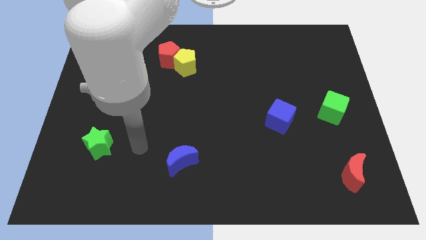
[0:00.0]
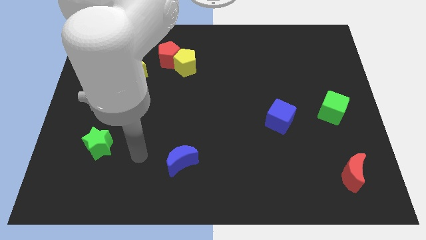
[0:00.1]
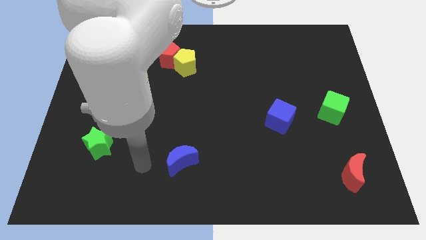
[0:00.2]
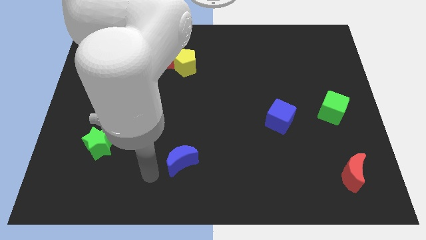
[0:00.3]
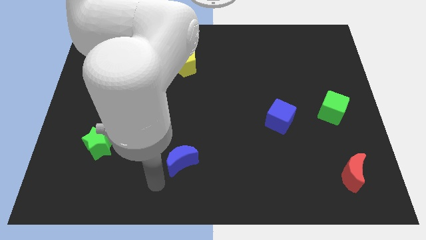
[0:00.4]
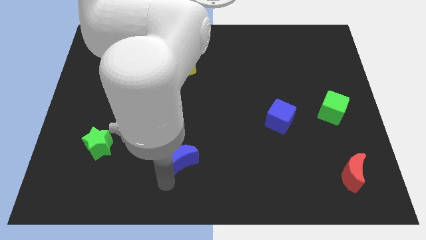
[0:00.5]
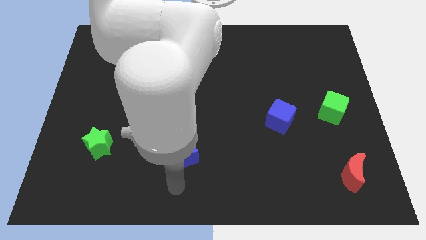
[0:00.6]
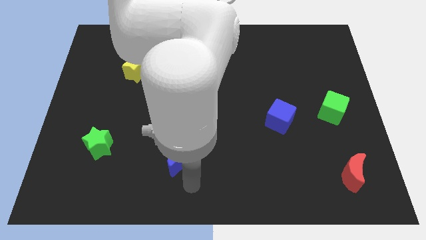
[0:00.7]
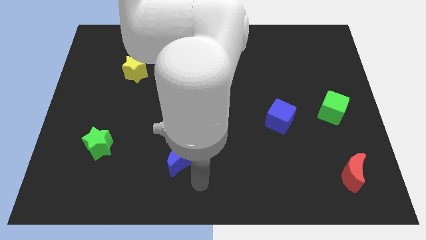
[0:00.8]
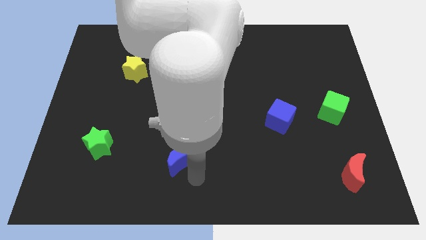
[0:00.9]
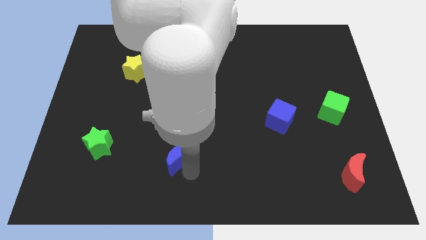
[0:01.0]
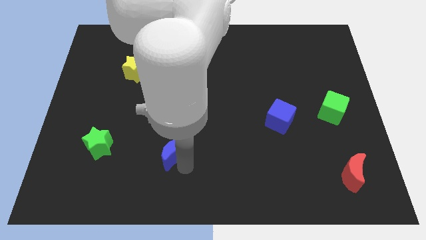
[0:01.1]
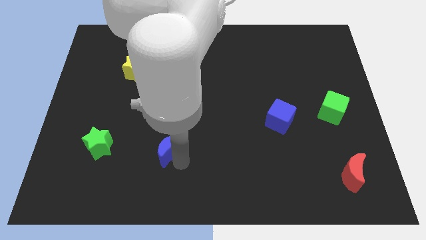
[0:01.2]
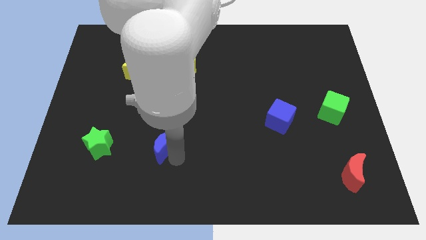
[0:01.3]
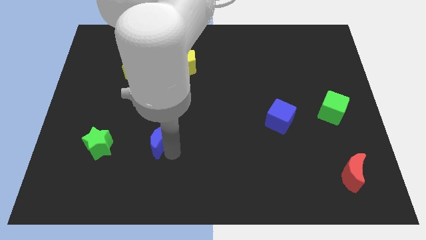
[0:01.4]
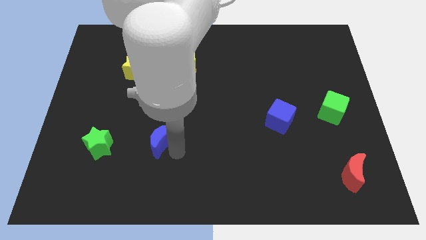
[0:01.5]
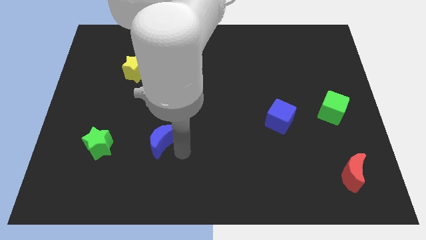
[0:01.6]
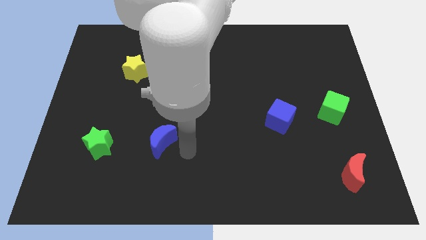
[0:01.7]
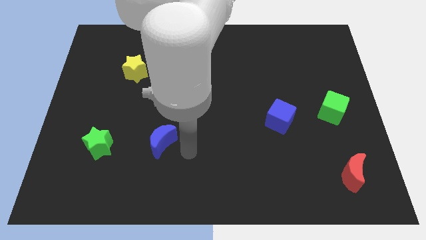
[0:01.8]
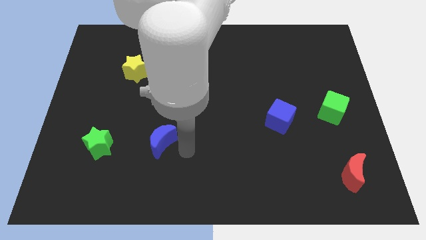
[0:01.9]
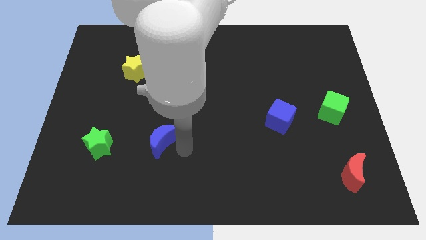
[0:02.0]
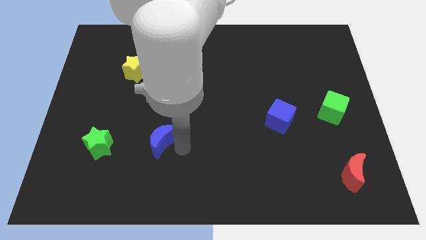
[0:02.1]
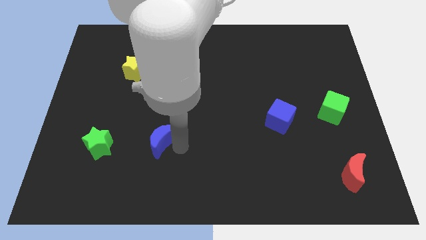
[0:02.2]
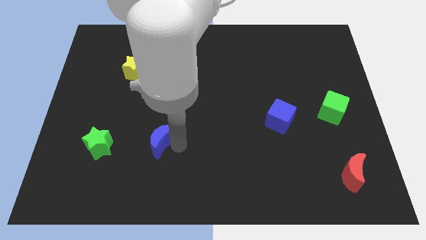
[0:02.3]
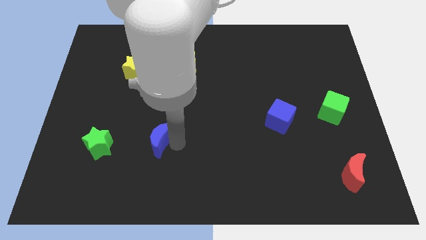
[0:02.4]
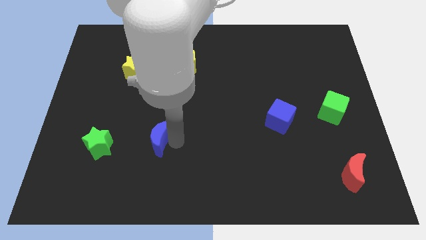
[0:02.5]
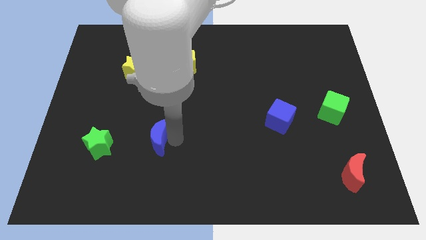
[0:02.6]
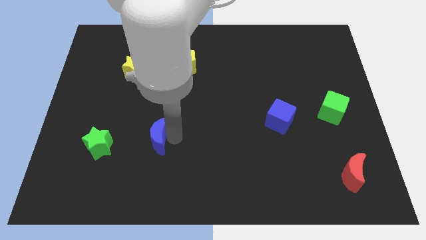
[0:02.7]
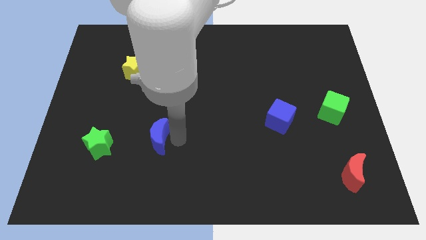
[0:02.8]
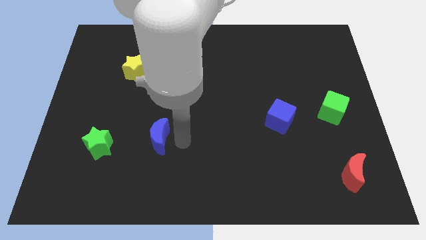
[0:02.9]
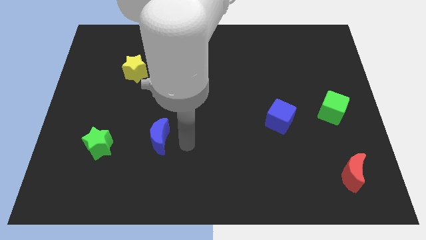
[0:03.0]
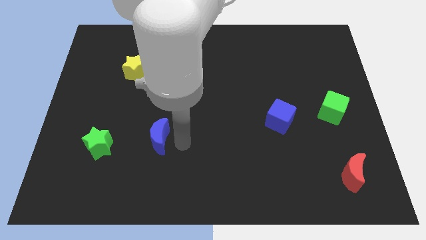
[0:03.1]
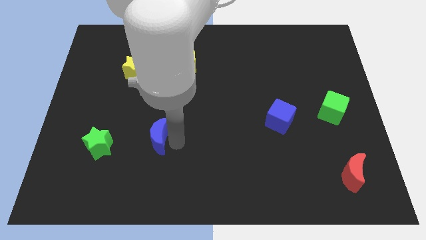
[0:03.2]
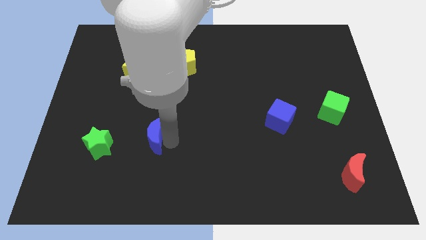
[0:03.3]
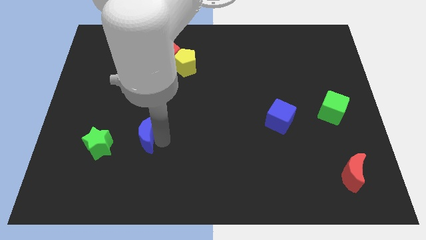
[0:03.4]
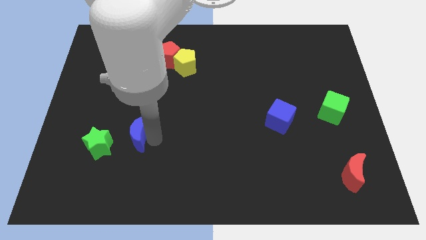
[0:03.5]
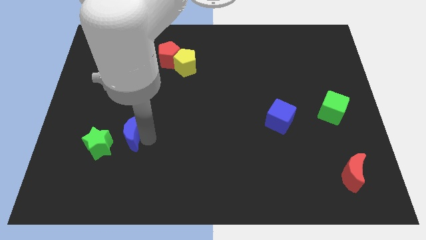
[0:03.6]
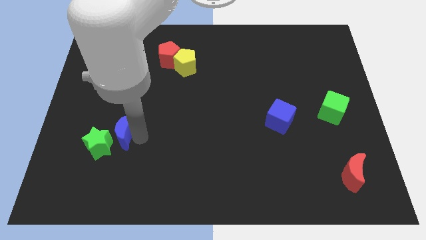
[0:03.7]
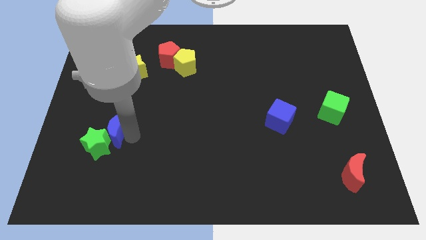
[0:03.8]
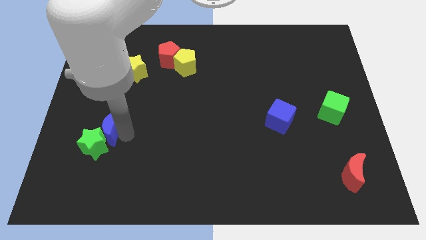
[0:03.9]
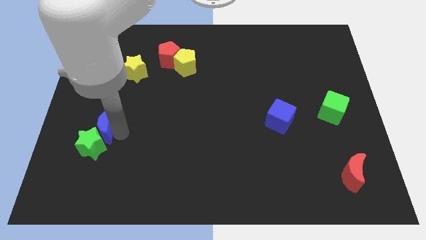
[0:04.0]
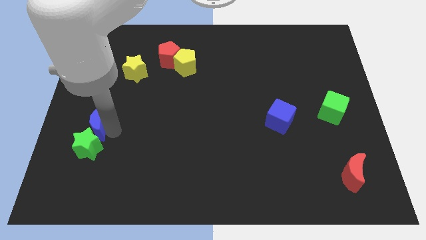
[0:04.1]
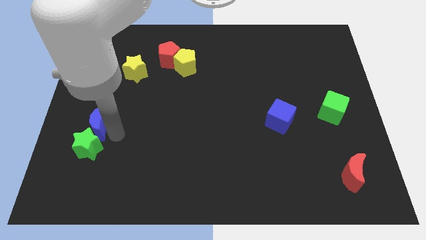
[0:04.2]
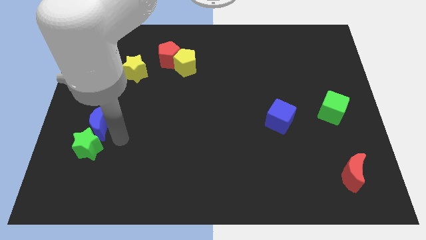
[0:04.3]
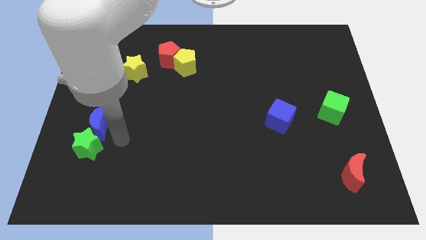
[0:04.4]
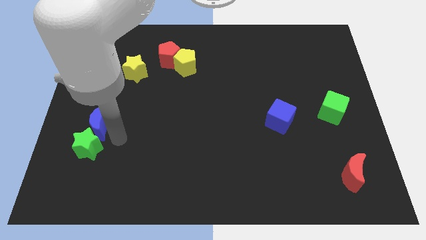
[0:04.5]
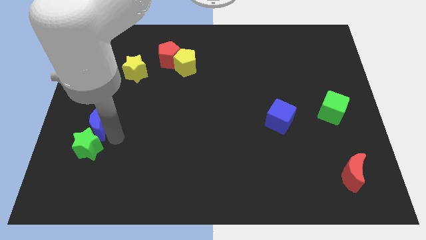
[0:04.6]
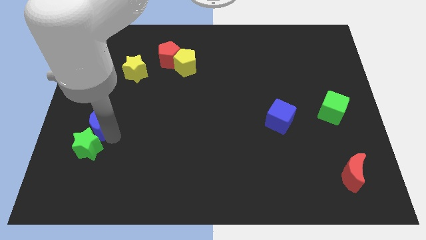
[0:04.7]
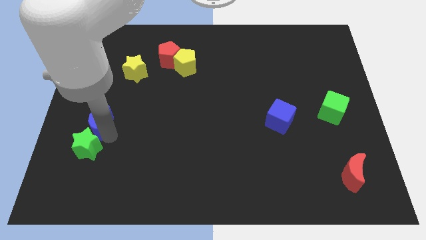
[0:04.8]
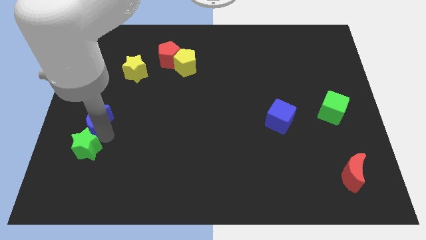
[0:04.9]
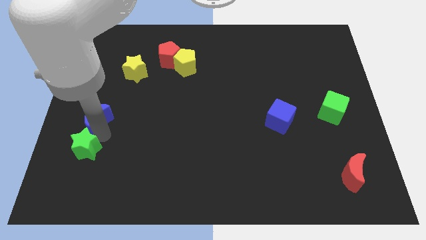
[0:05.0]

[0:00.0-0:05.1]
move the blue moon to the left side

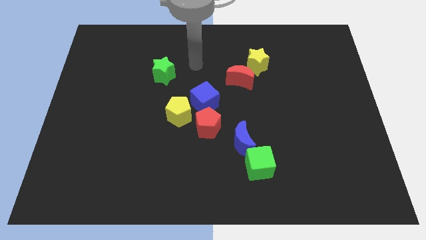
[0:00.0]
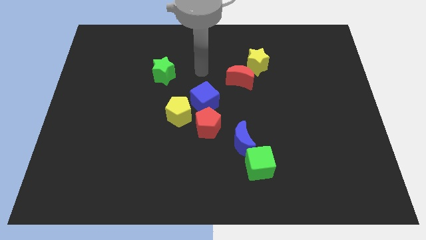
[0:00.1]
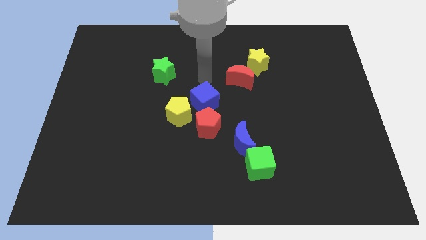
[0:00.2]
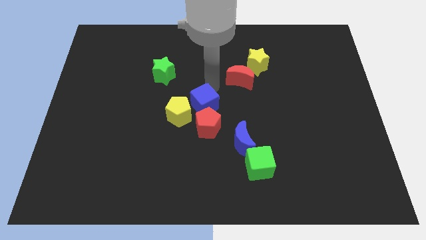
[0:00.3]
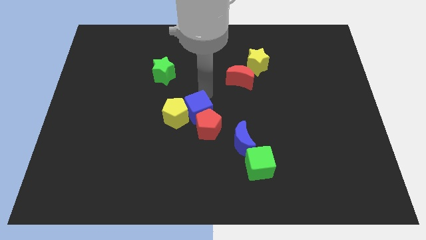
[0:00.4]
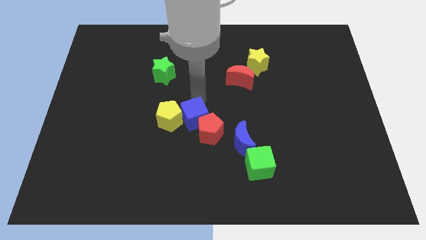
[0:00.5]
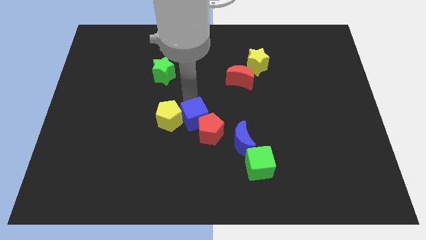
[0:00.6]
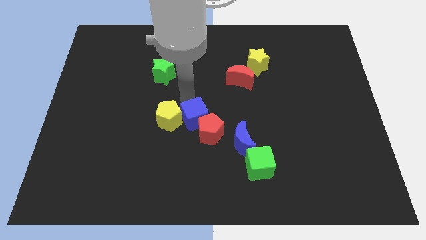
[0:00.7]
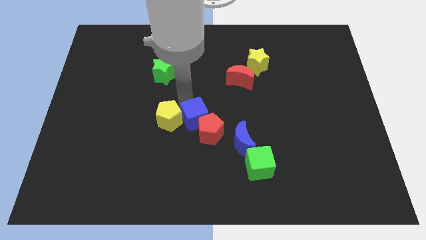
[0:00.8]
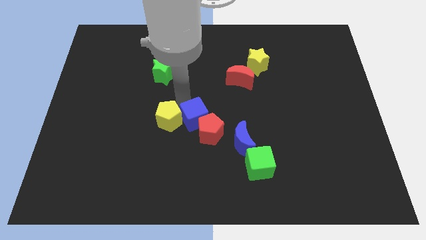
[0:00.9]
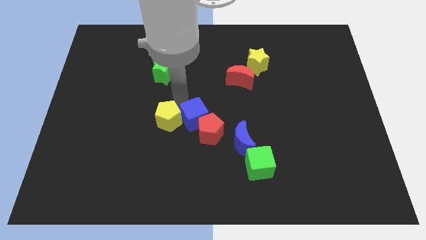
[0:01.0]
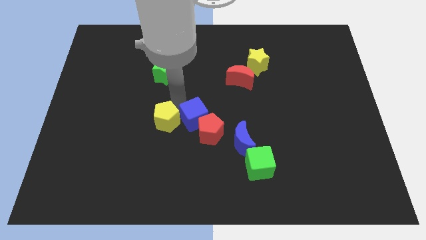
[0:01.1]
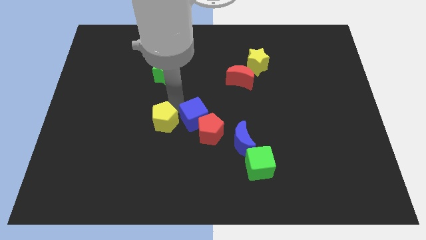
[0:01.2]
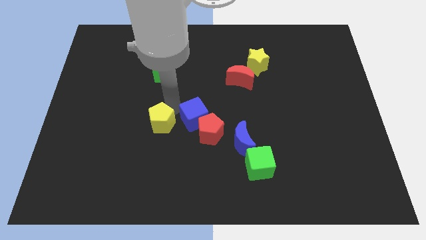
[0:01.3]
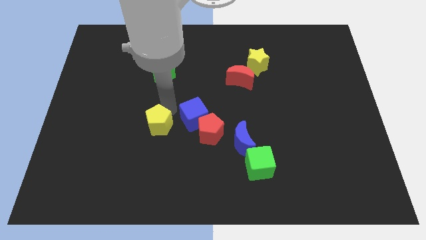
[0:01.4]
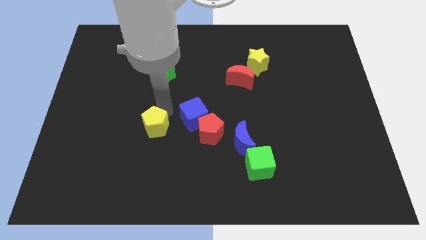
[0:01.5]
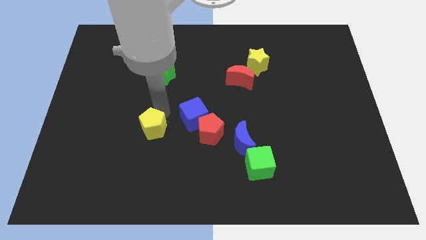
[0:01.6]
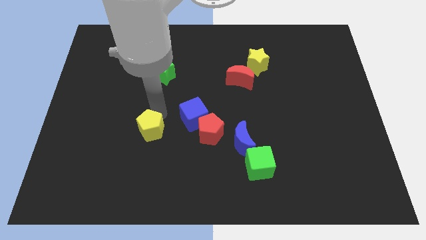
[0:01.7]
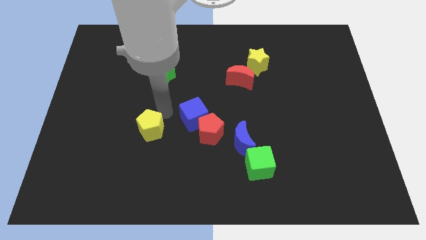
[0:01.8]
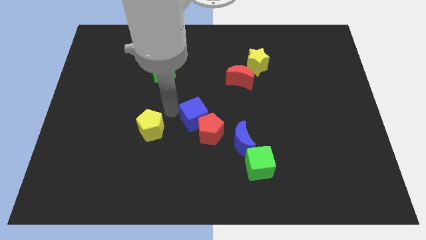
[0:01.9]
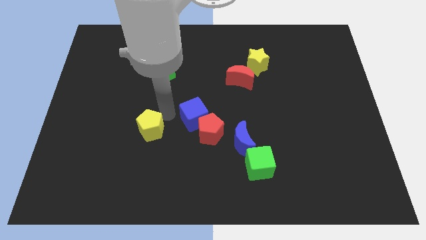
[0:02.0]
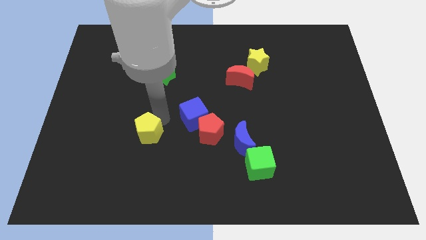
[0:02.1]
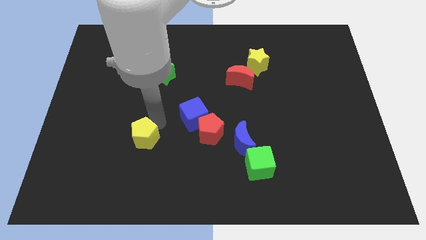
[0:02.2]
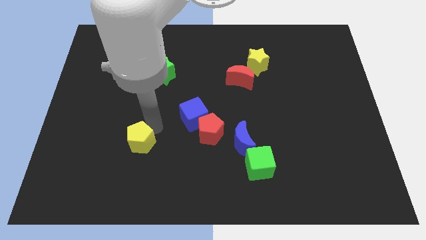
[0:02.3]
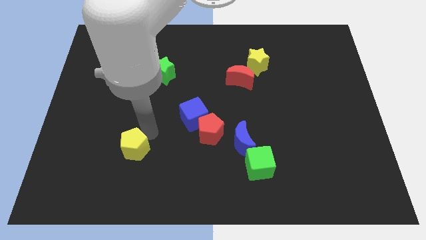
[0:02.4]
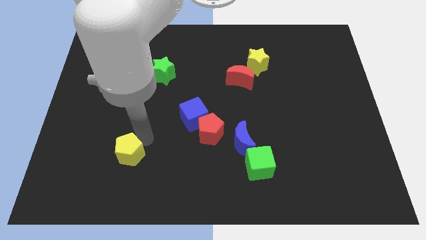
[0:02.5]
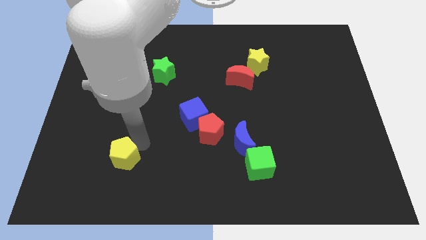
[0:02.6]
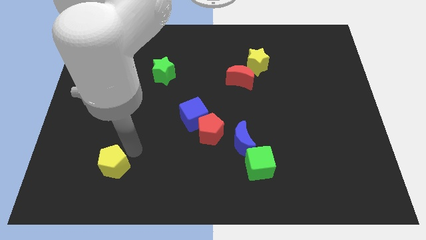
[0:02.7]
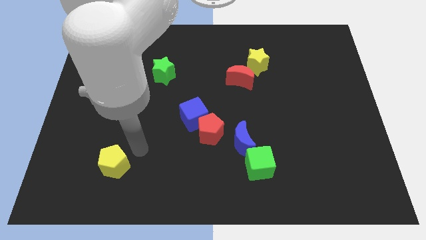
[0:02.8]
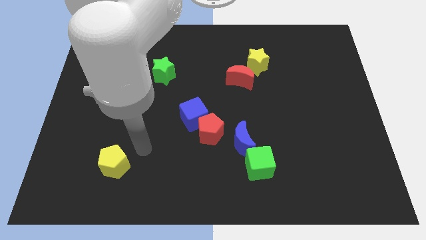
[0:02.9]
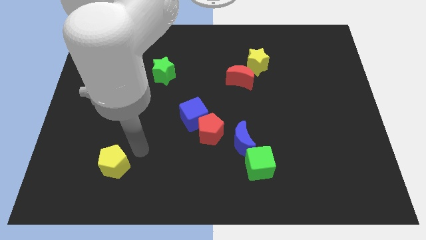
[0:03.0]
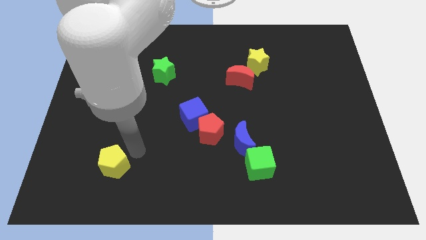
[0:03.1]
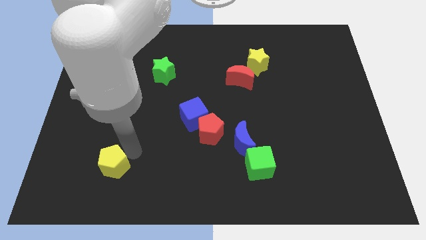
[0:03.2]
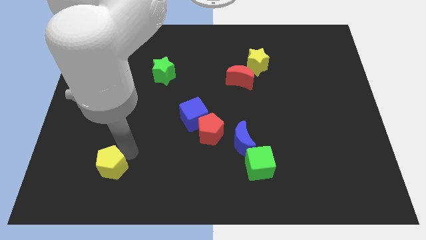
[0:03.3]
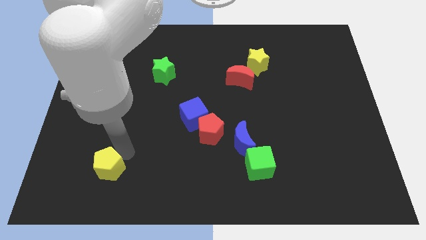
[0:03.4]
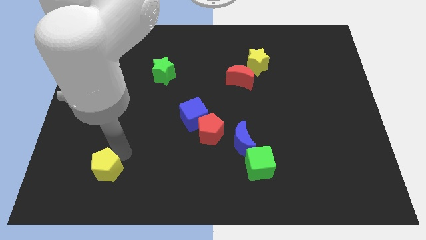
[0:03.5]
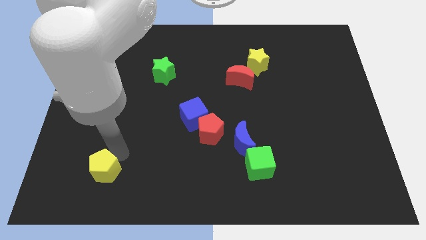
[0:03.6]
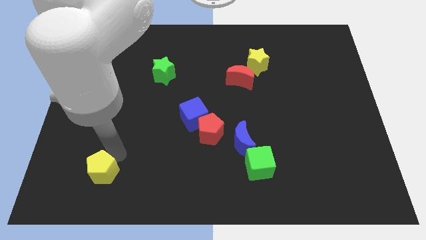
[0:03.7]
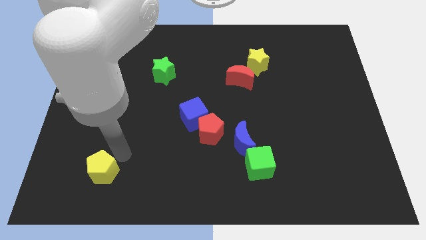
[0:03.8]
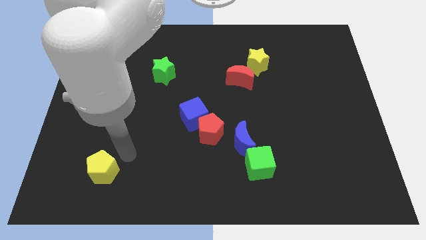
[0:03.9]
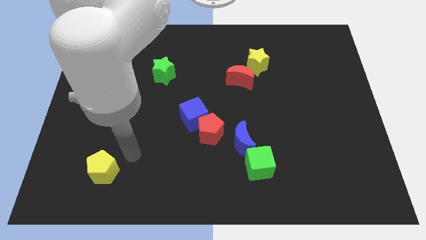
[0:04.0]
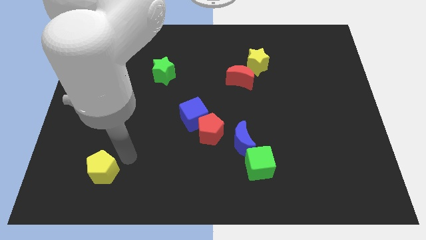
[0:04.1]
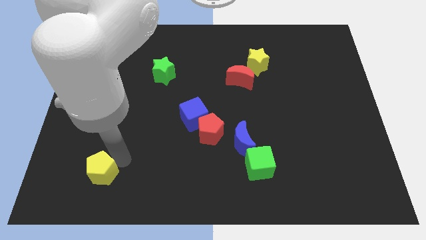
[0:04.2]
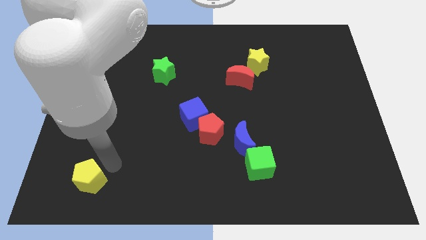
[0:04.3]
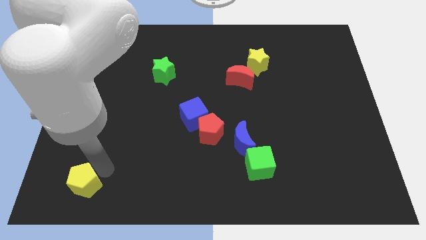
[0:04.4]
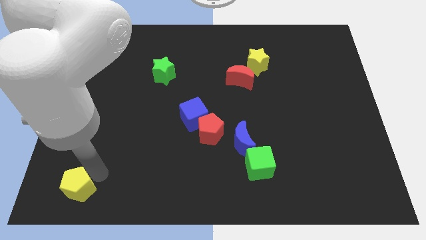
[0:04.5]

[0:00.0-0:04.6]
put the yellow pentagon to the bottom left
